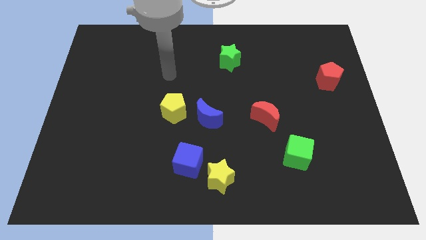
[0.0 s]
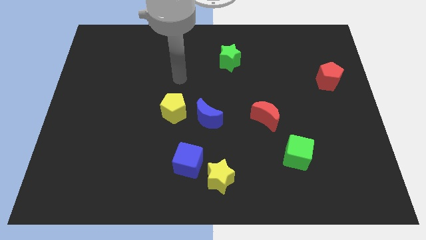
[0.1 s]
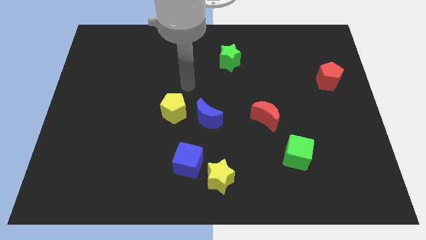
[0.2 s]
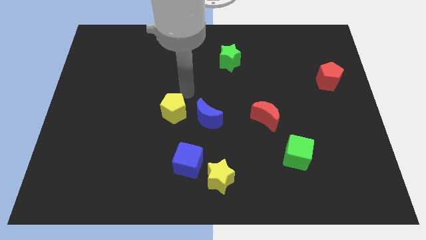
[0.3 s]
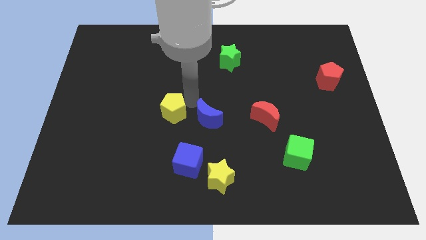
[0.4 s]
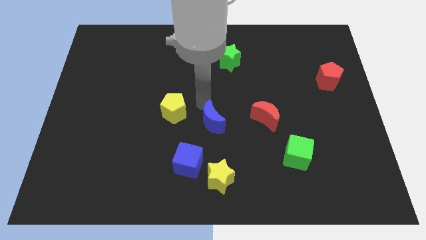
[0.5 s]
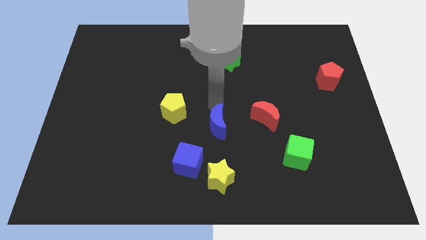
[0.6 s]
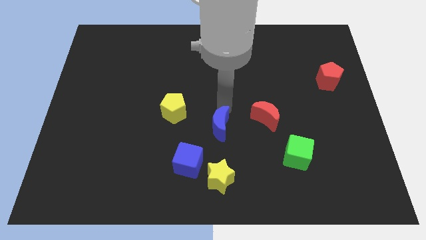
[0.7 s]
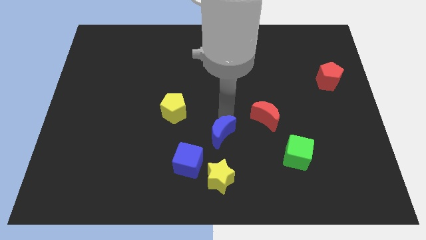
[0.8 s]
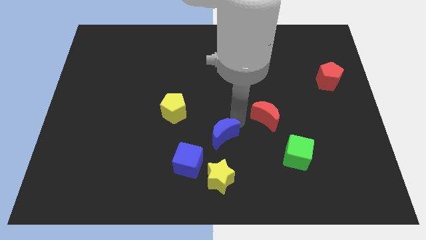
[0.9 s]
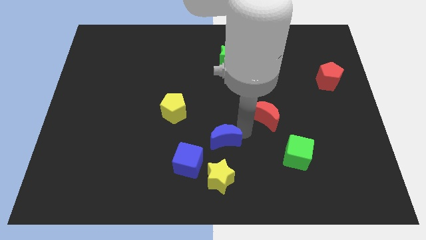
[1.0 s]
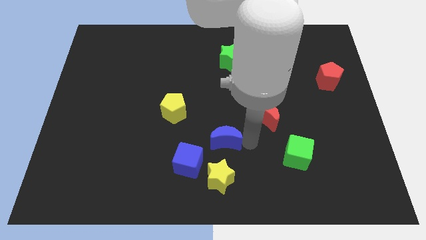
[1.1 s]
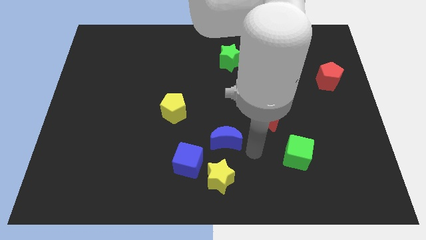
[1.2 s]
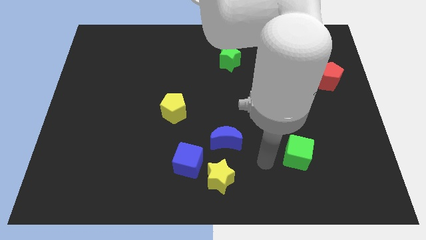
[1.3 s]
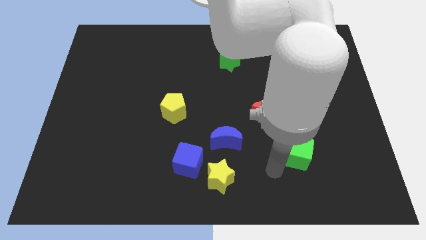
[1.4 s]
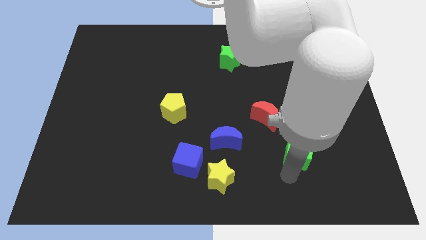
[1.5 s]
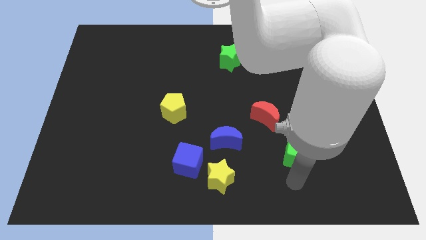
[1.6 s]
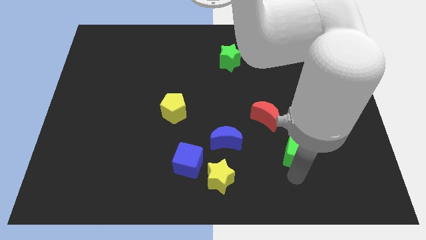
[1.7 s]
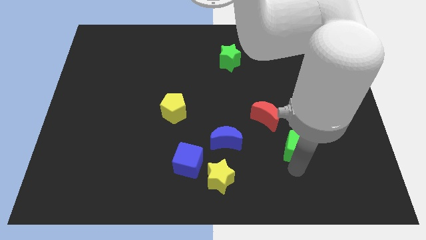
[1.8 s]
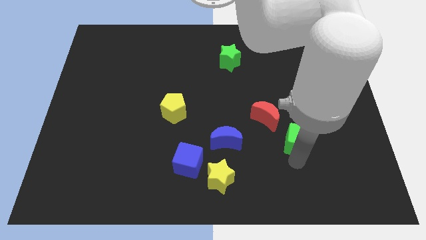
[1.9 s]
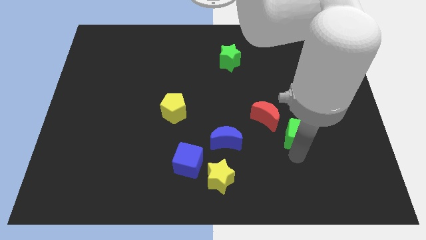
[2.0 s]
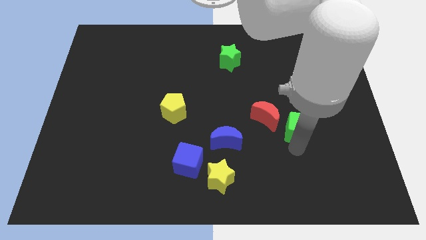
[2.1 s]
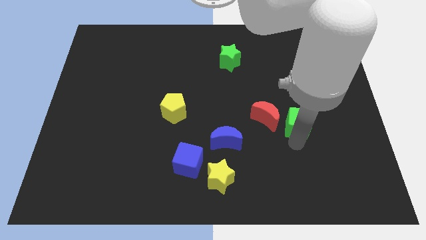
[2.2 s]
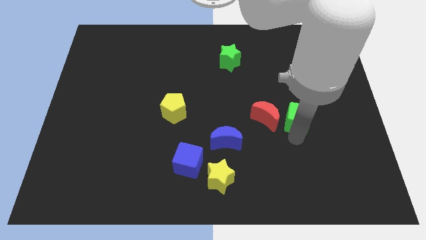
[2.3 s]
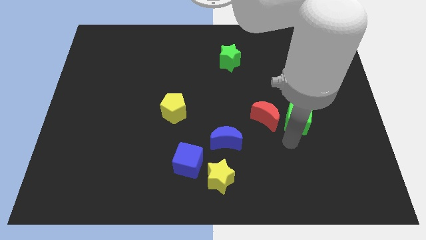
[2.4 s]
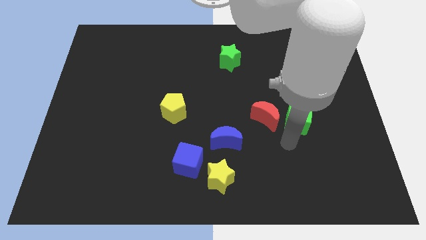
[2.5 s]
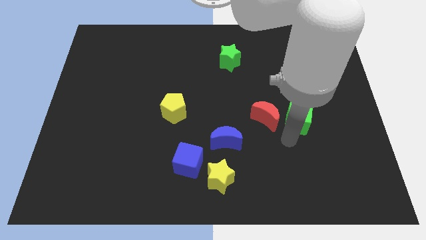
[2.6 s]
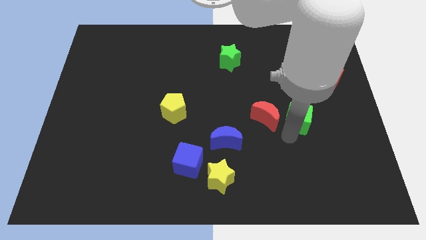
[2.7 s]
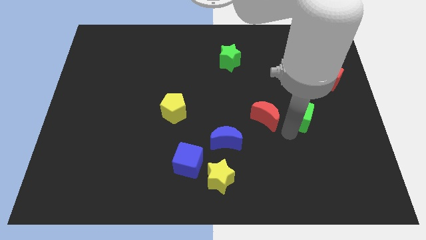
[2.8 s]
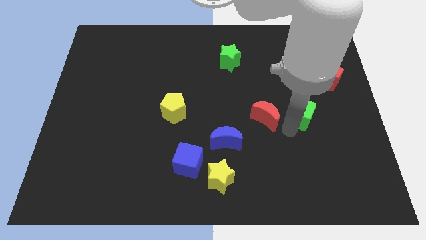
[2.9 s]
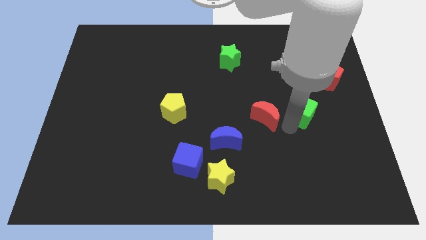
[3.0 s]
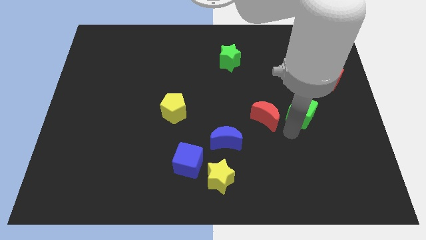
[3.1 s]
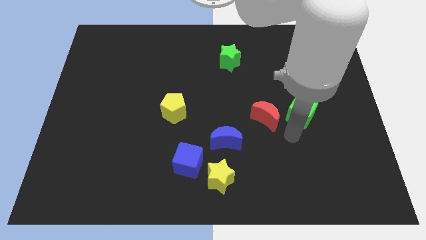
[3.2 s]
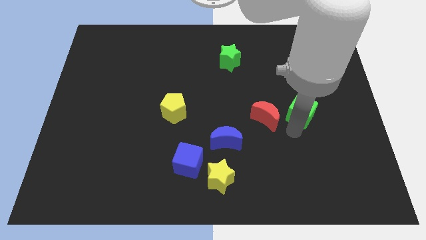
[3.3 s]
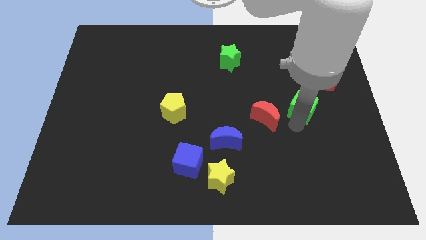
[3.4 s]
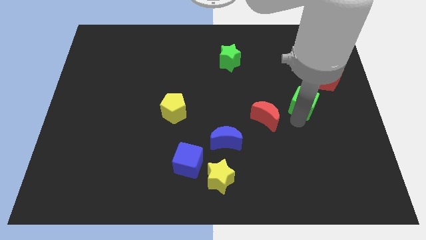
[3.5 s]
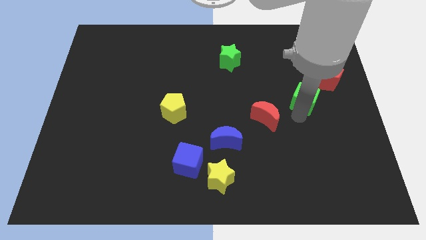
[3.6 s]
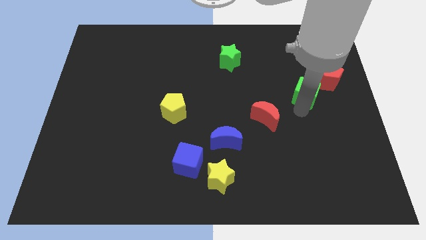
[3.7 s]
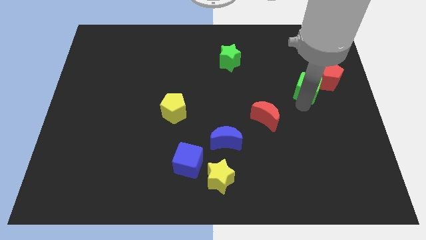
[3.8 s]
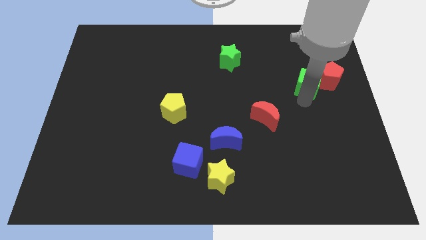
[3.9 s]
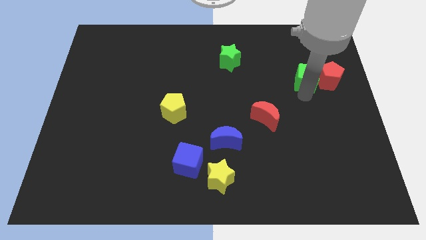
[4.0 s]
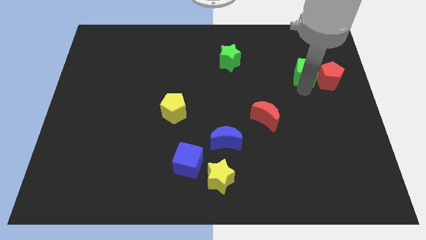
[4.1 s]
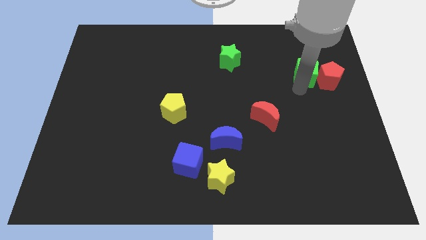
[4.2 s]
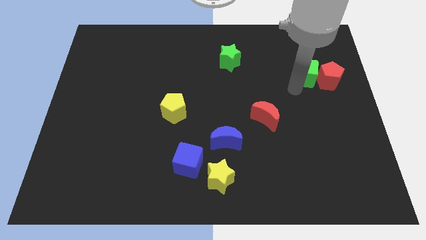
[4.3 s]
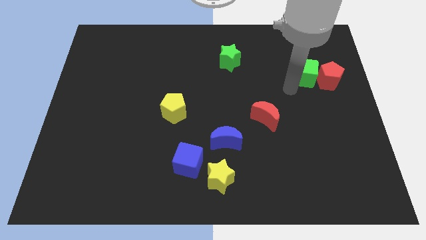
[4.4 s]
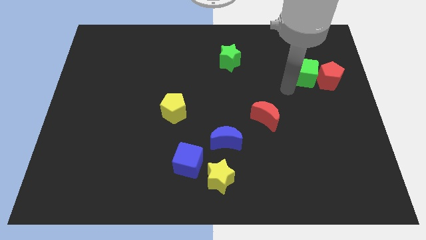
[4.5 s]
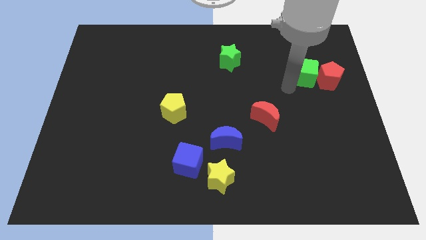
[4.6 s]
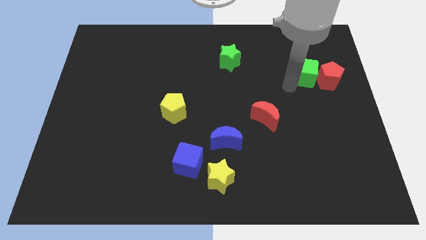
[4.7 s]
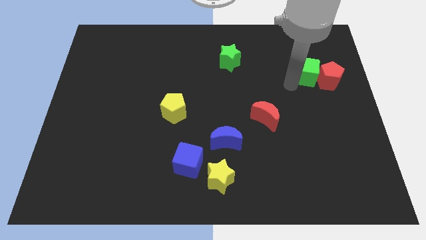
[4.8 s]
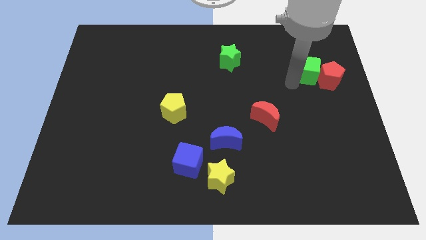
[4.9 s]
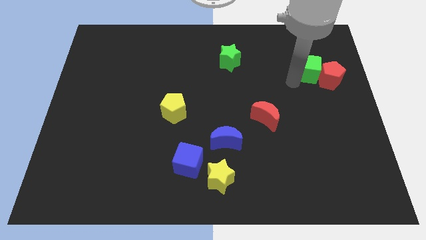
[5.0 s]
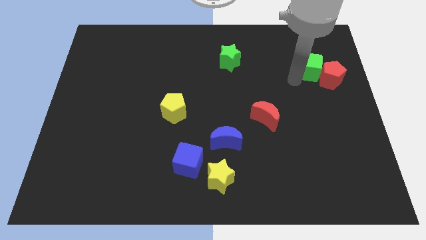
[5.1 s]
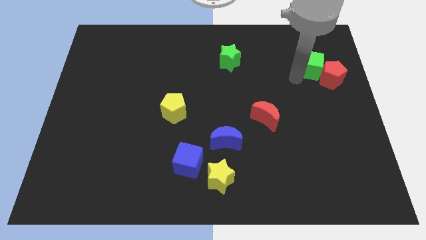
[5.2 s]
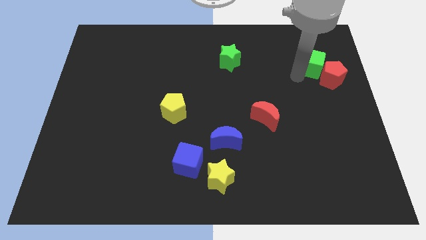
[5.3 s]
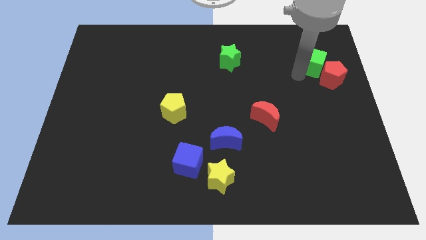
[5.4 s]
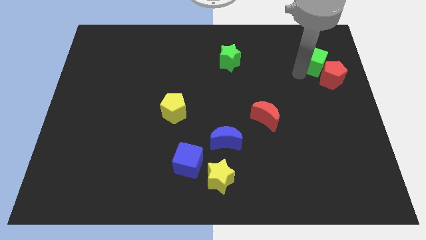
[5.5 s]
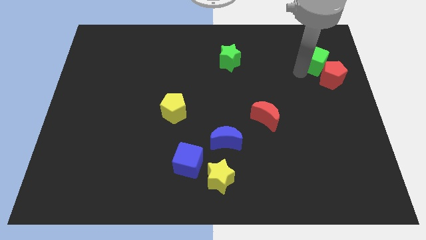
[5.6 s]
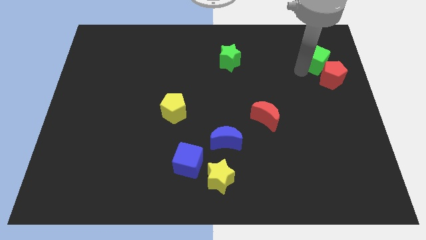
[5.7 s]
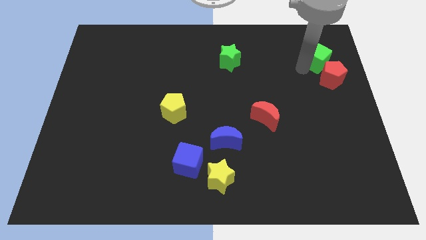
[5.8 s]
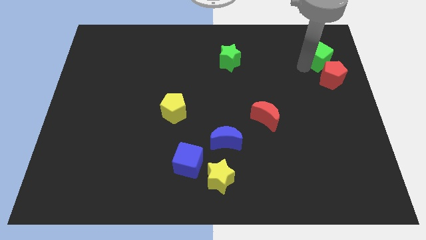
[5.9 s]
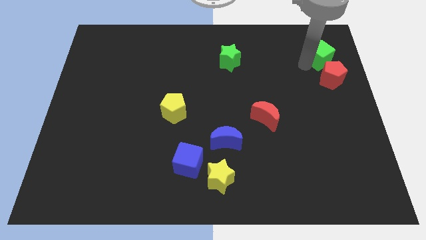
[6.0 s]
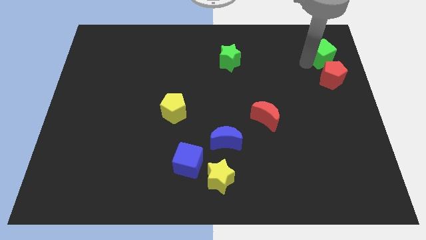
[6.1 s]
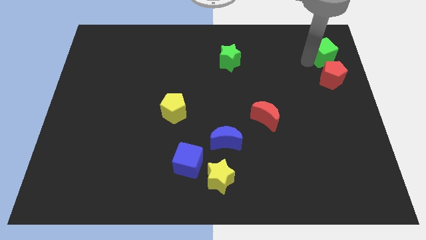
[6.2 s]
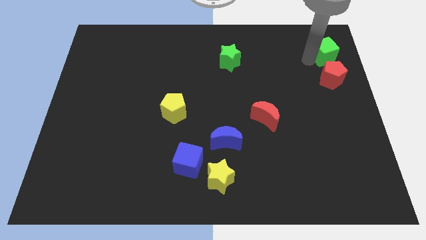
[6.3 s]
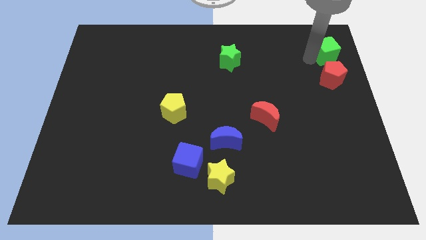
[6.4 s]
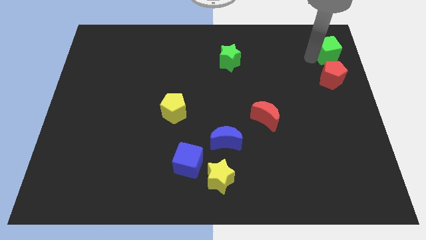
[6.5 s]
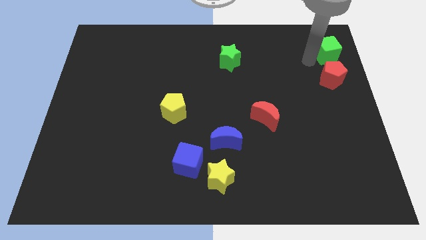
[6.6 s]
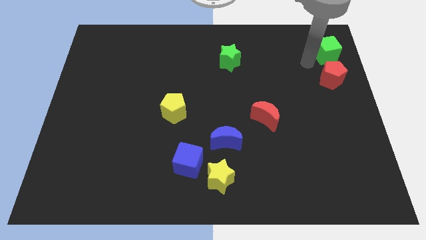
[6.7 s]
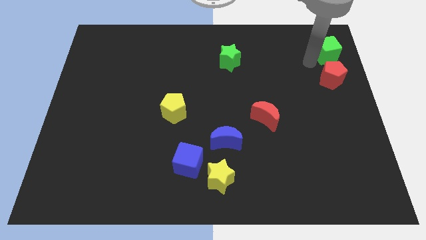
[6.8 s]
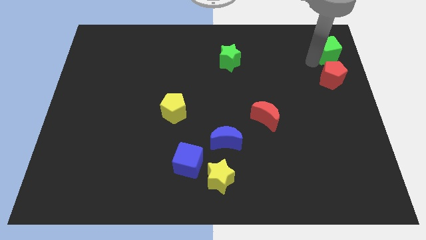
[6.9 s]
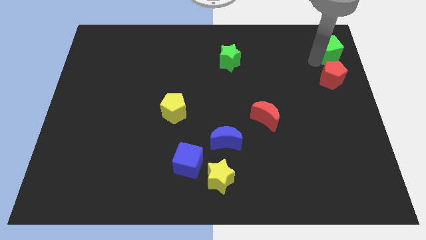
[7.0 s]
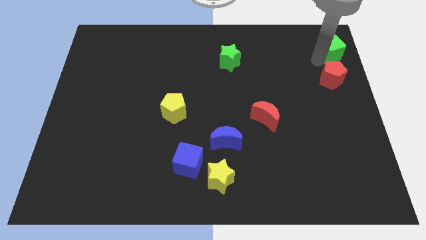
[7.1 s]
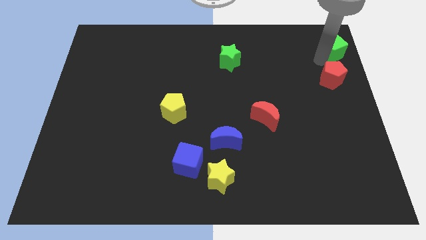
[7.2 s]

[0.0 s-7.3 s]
slide the green cube to the top right
